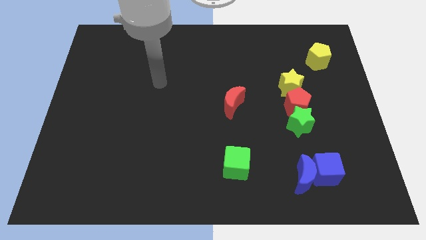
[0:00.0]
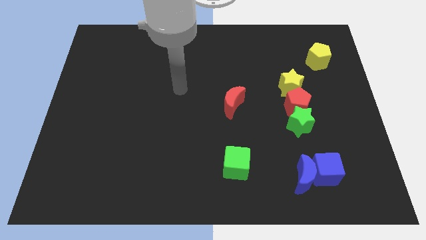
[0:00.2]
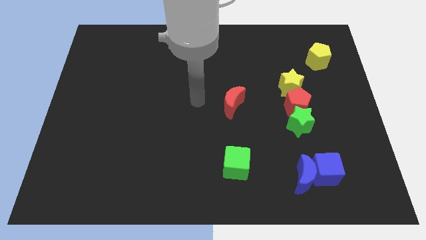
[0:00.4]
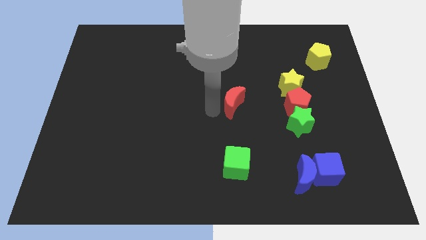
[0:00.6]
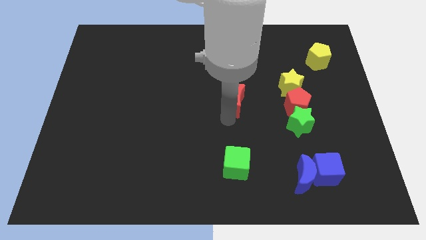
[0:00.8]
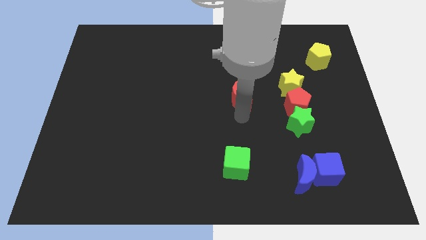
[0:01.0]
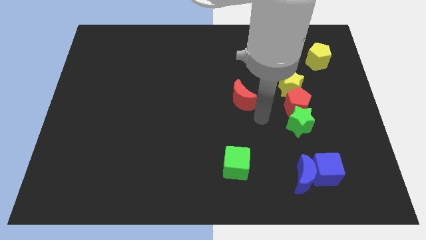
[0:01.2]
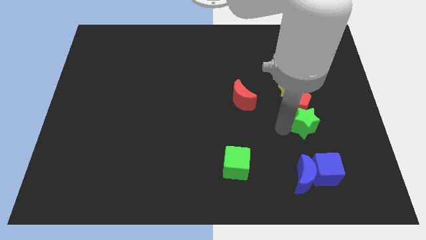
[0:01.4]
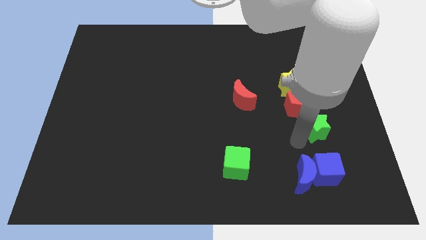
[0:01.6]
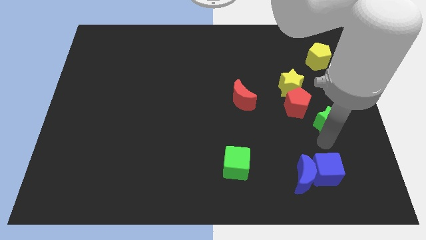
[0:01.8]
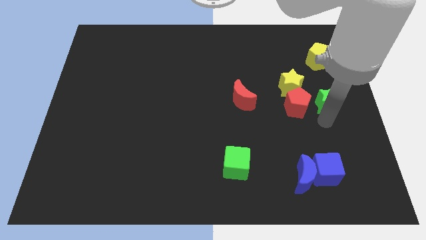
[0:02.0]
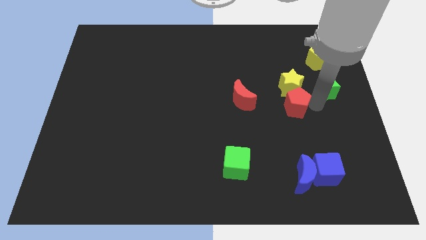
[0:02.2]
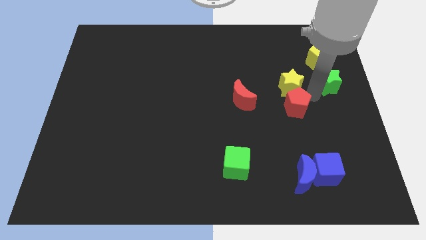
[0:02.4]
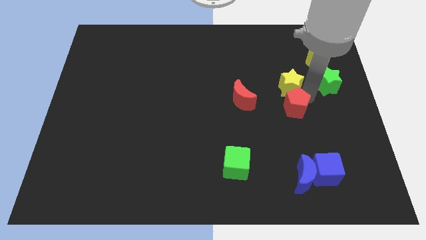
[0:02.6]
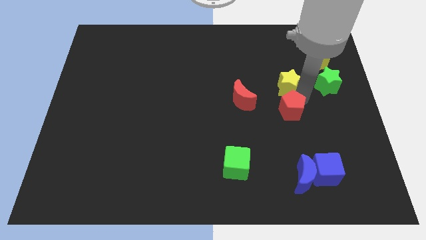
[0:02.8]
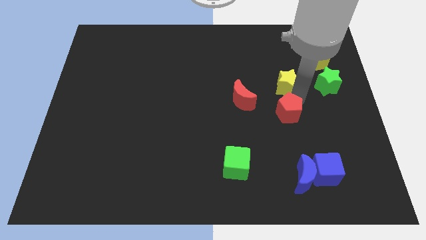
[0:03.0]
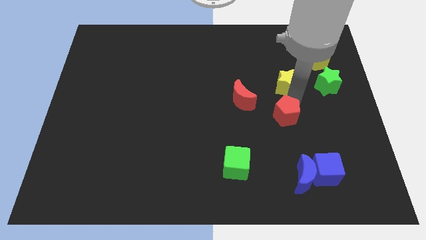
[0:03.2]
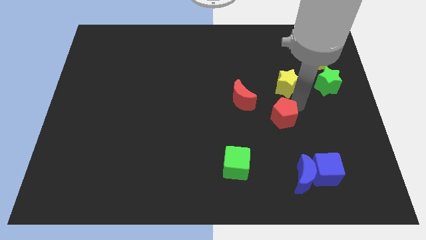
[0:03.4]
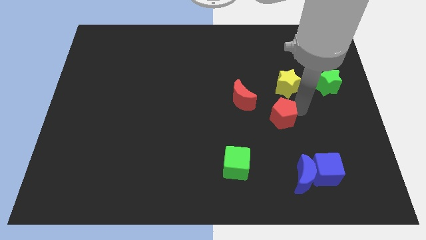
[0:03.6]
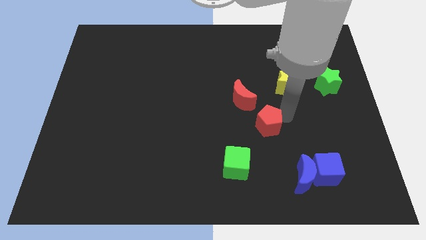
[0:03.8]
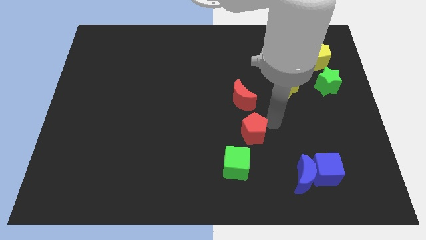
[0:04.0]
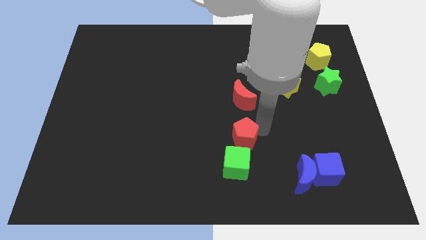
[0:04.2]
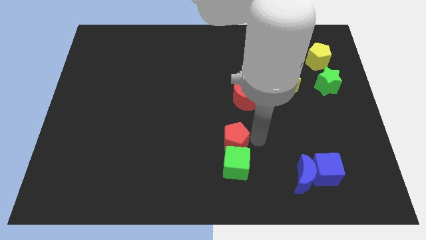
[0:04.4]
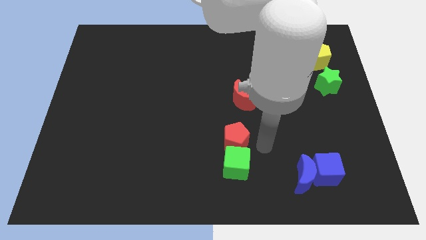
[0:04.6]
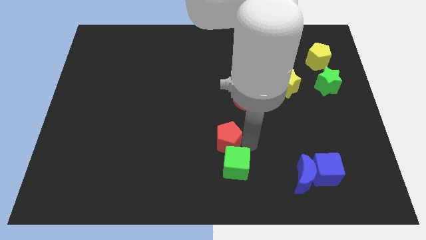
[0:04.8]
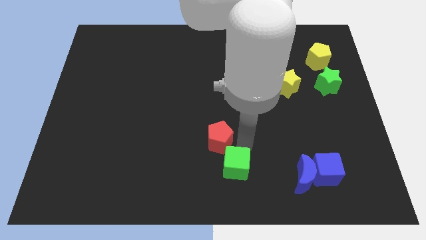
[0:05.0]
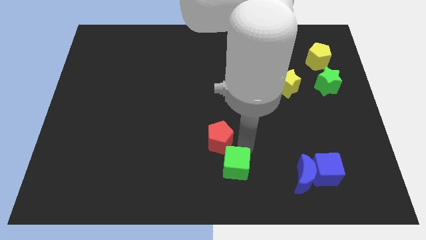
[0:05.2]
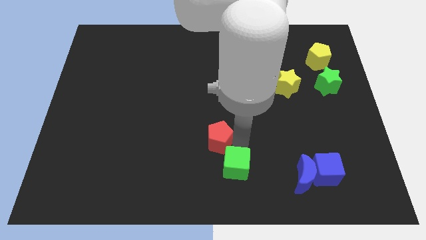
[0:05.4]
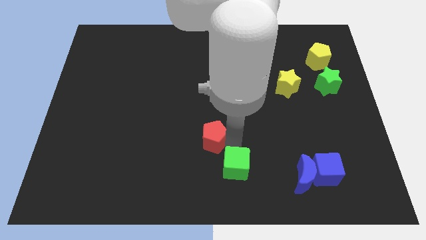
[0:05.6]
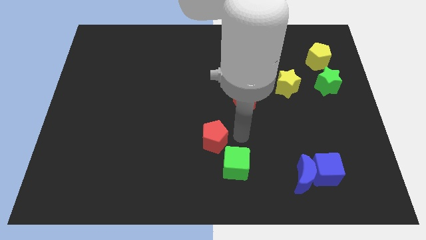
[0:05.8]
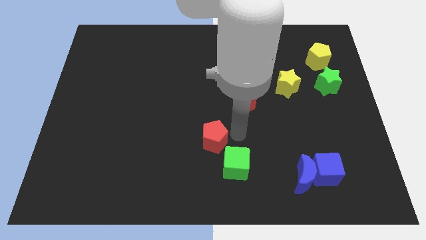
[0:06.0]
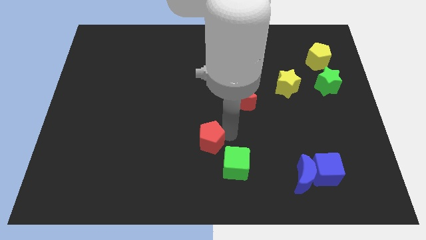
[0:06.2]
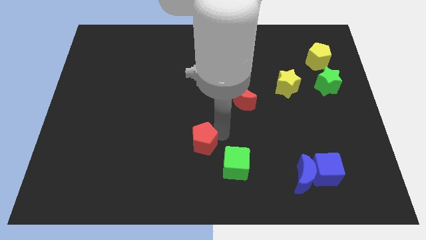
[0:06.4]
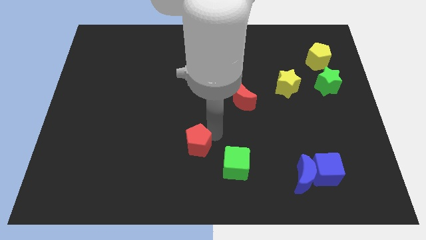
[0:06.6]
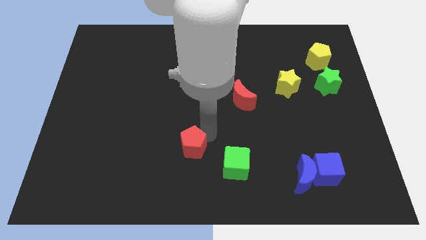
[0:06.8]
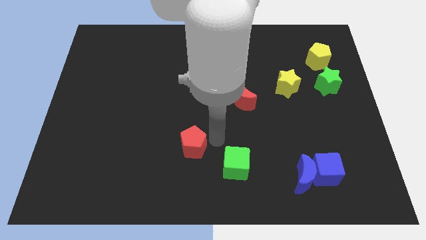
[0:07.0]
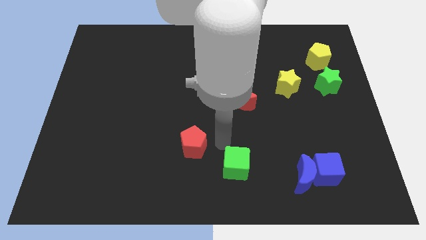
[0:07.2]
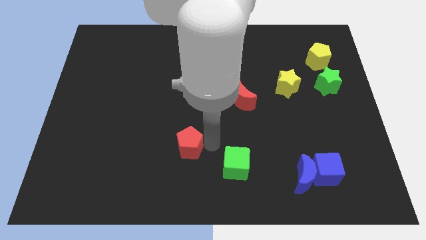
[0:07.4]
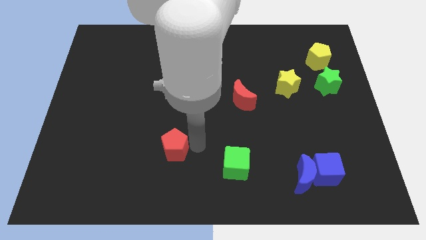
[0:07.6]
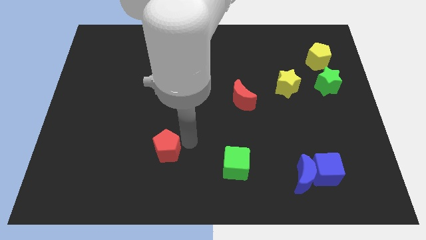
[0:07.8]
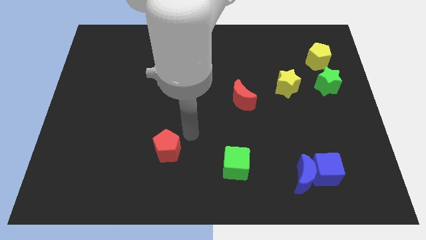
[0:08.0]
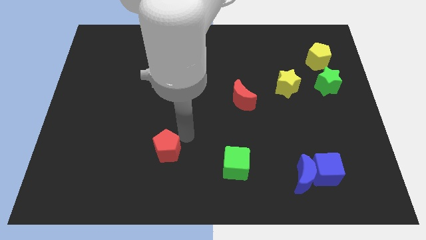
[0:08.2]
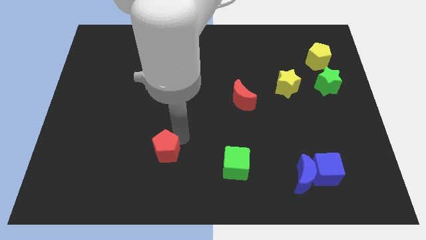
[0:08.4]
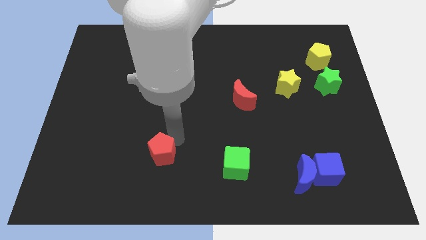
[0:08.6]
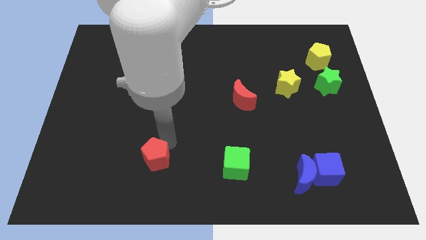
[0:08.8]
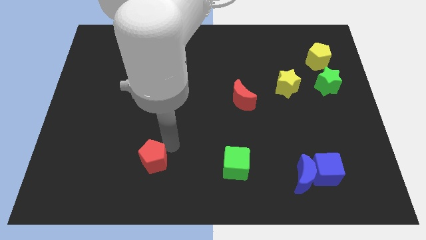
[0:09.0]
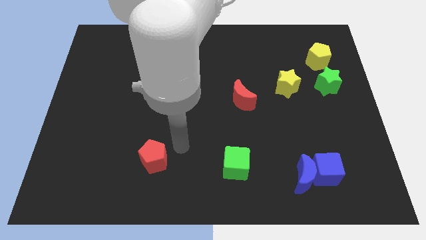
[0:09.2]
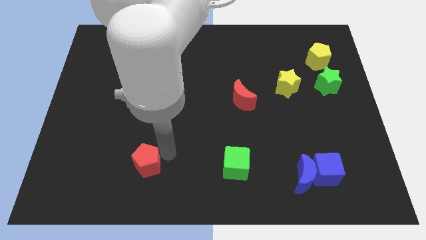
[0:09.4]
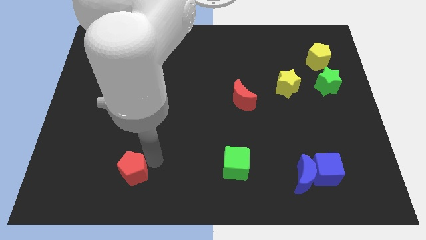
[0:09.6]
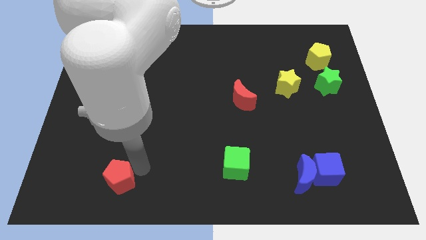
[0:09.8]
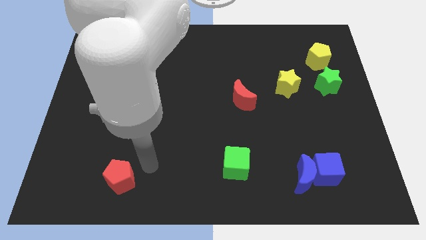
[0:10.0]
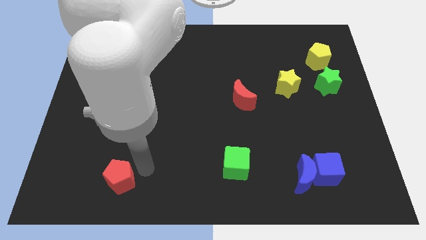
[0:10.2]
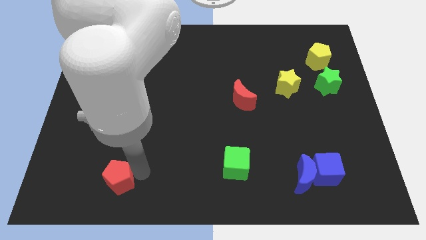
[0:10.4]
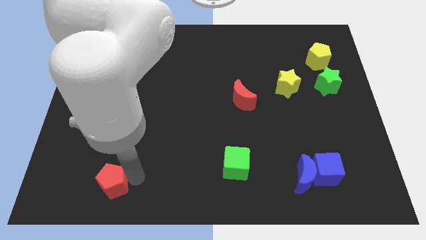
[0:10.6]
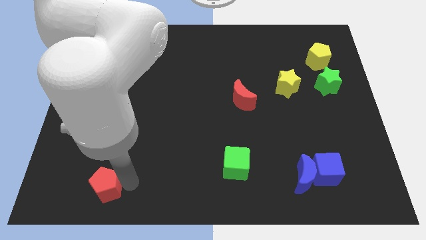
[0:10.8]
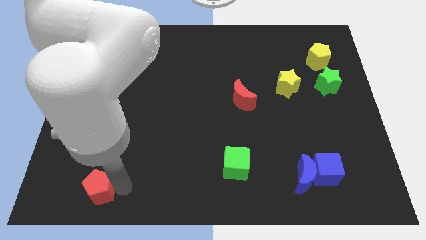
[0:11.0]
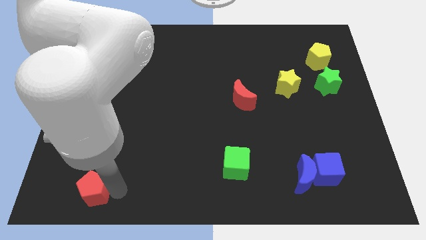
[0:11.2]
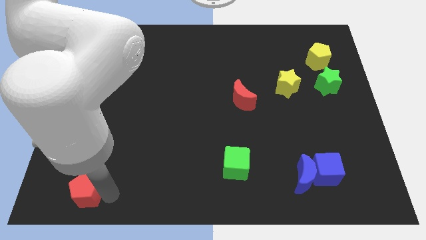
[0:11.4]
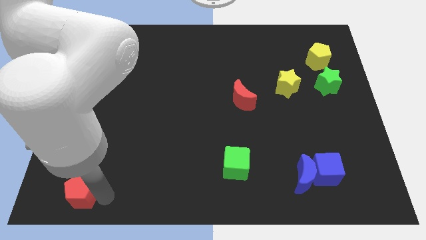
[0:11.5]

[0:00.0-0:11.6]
move the red pentagon to the bottom left
